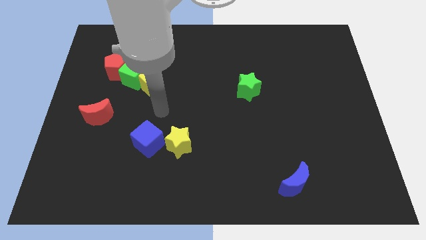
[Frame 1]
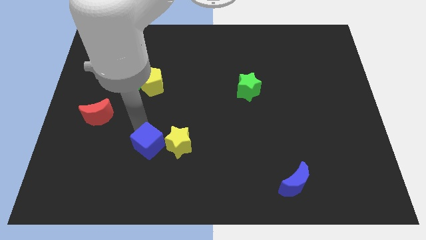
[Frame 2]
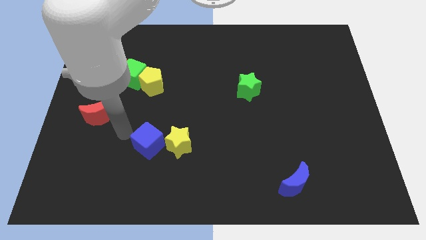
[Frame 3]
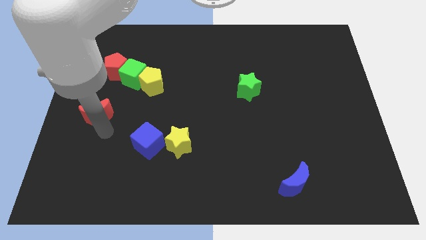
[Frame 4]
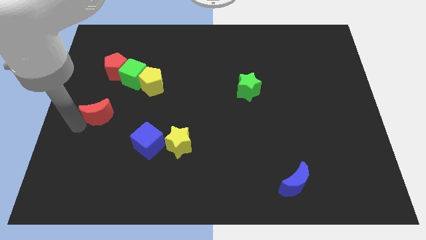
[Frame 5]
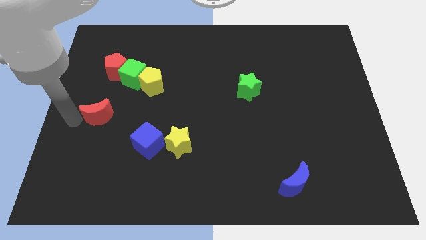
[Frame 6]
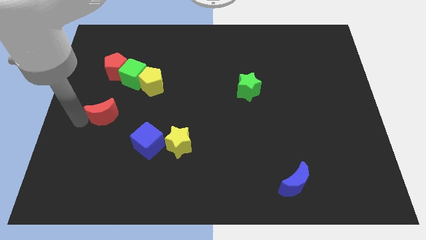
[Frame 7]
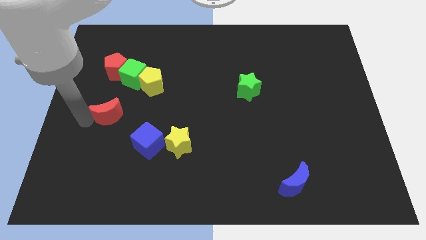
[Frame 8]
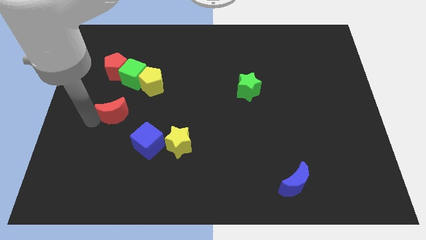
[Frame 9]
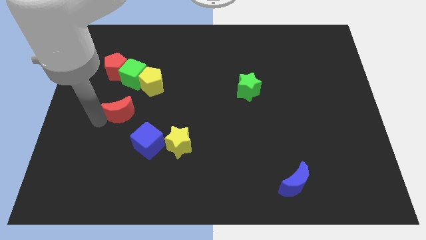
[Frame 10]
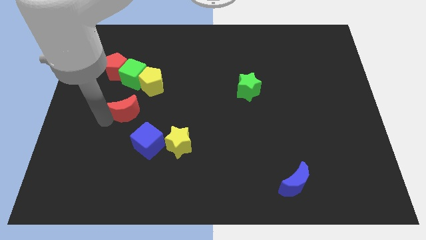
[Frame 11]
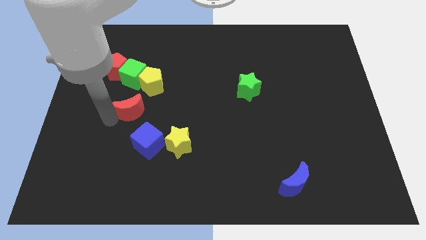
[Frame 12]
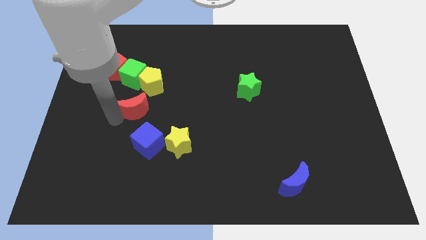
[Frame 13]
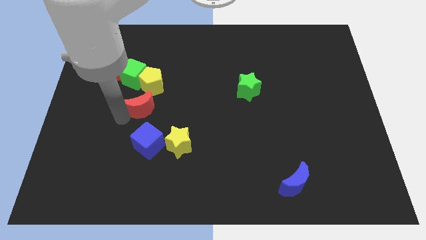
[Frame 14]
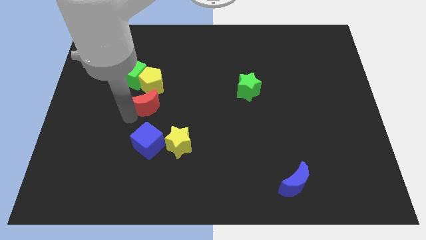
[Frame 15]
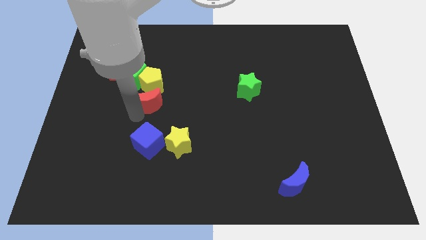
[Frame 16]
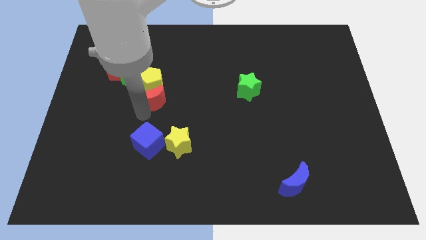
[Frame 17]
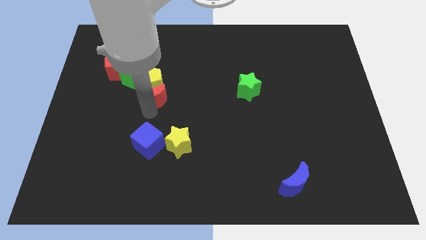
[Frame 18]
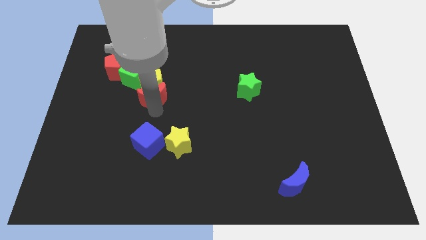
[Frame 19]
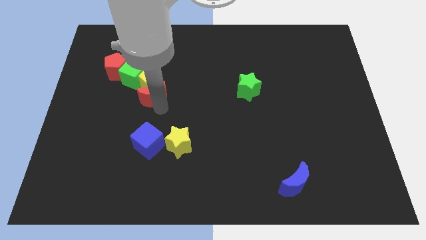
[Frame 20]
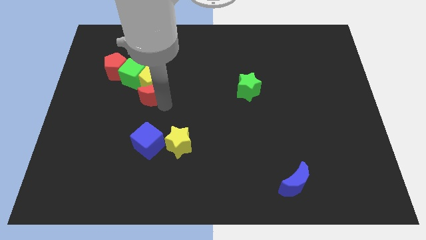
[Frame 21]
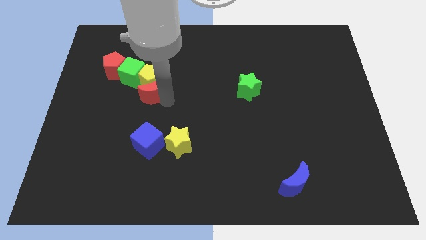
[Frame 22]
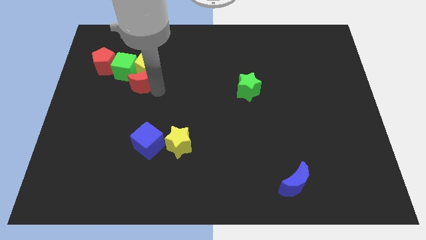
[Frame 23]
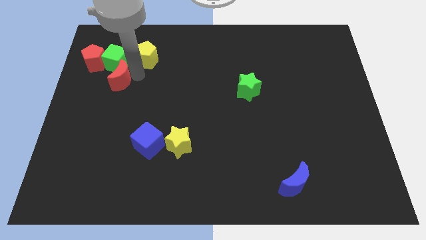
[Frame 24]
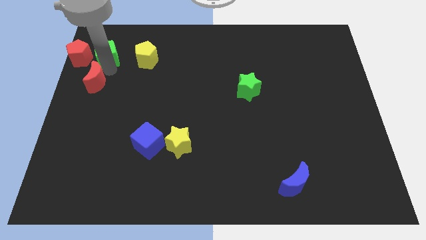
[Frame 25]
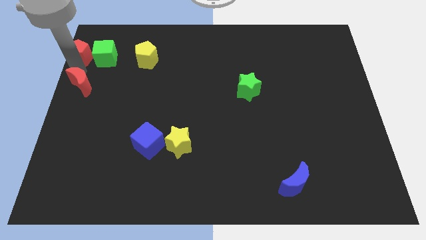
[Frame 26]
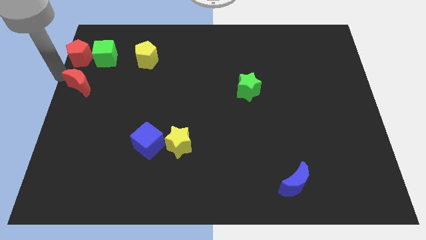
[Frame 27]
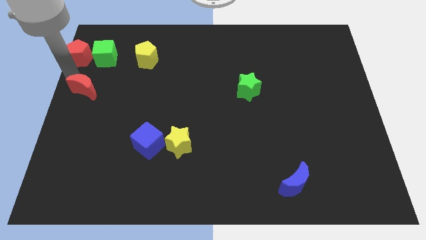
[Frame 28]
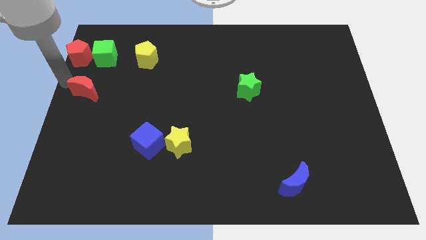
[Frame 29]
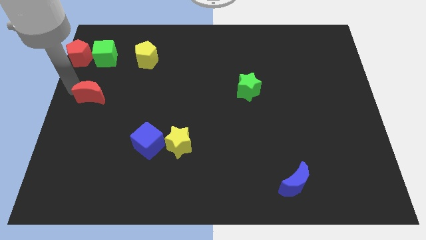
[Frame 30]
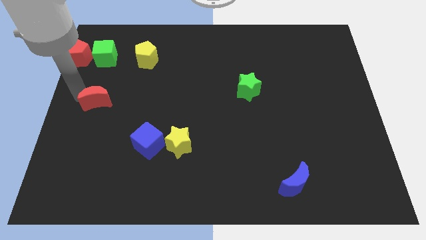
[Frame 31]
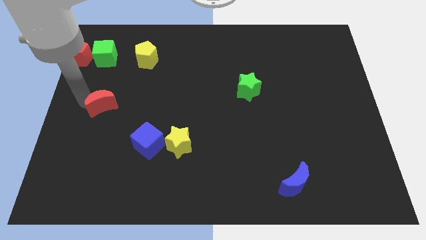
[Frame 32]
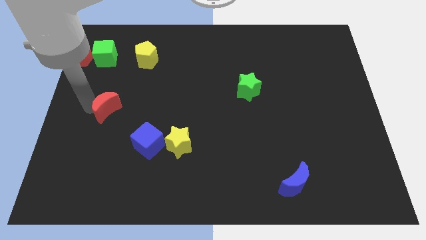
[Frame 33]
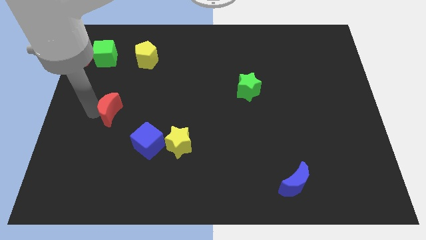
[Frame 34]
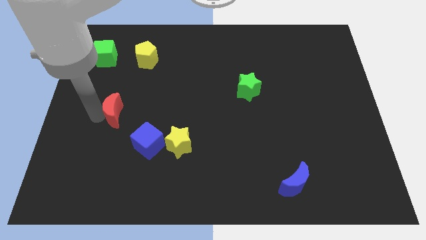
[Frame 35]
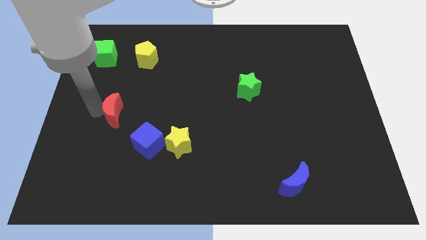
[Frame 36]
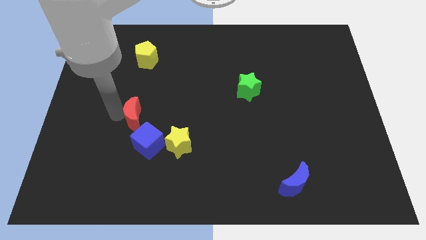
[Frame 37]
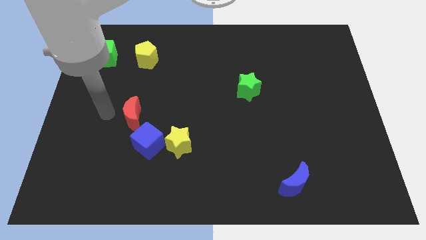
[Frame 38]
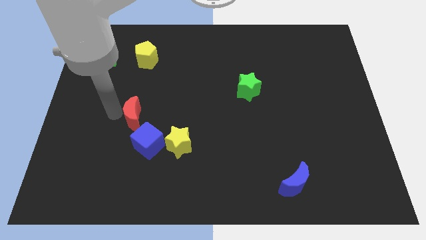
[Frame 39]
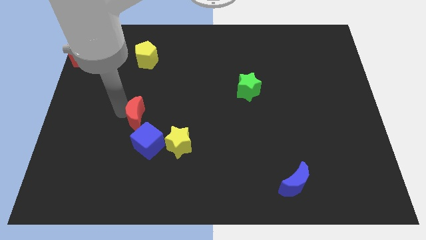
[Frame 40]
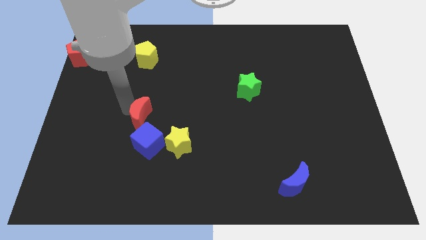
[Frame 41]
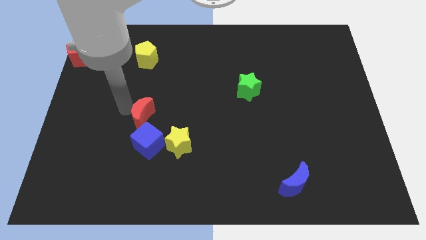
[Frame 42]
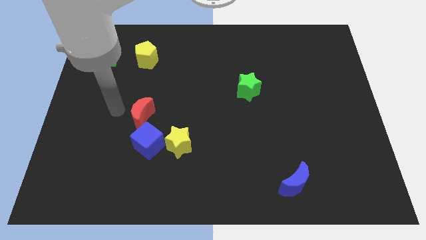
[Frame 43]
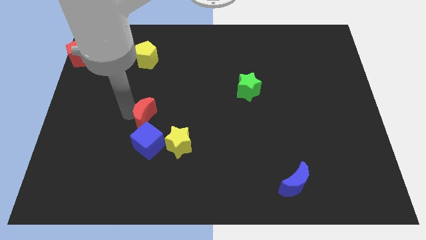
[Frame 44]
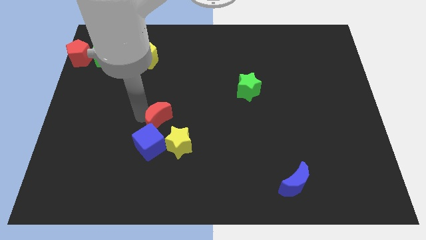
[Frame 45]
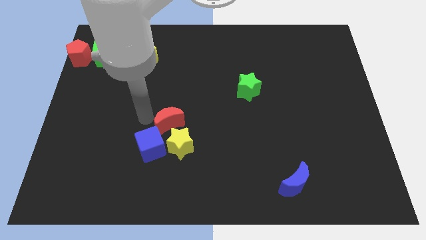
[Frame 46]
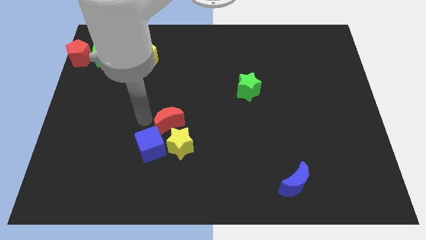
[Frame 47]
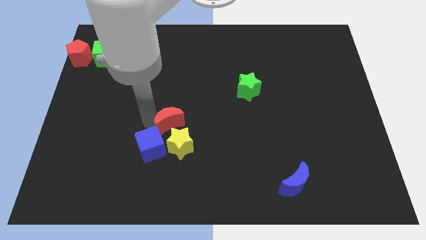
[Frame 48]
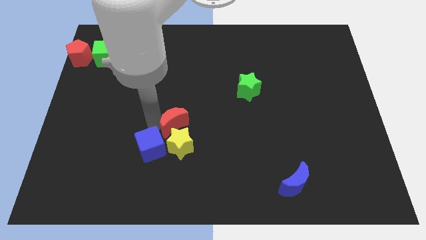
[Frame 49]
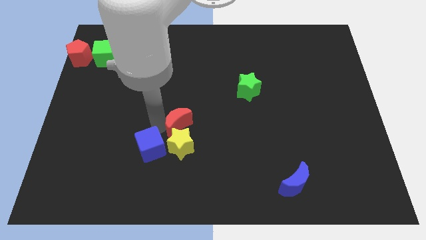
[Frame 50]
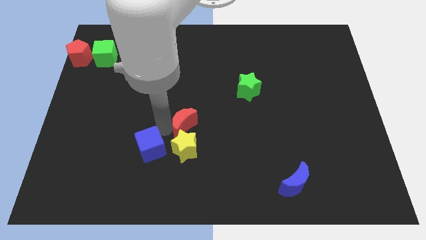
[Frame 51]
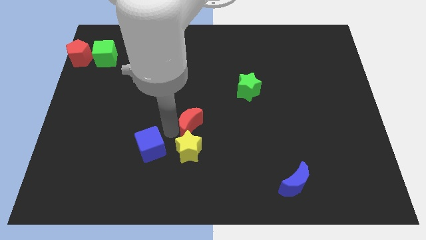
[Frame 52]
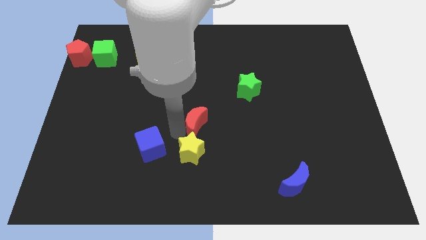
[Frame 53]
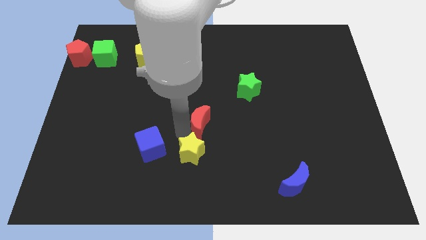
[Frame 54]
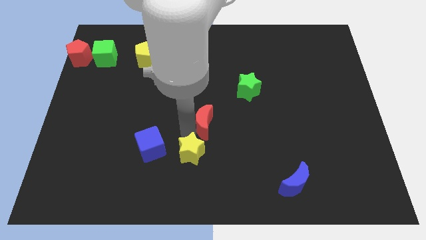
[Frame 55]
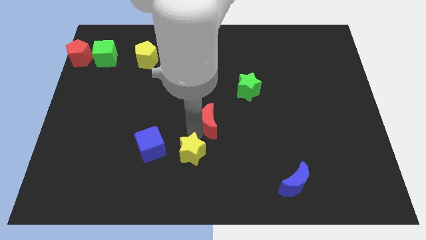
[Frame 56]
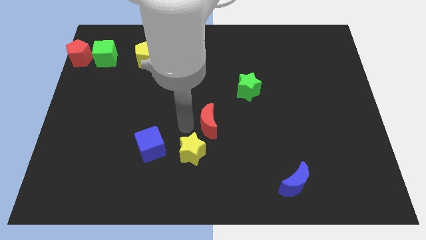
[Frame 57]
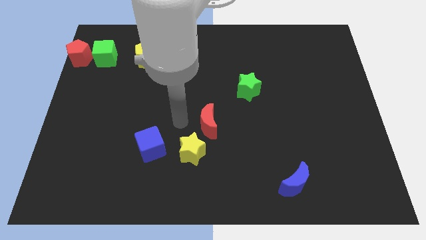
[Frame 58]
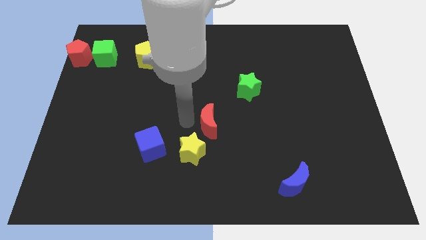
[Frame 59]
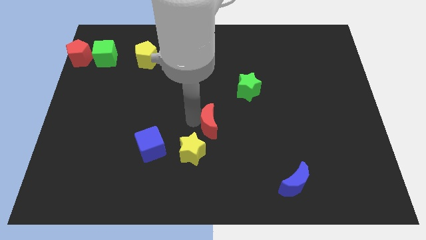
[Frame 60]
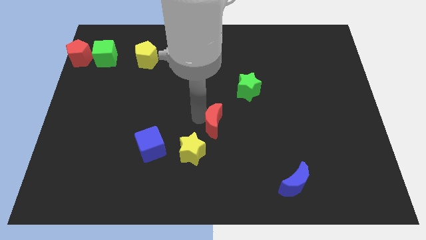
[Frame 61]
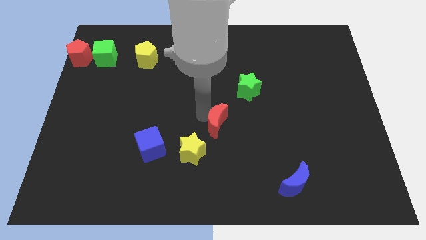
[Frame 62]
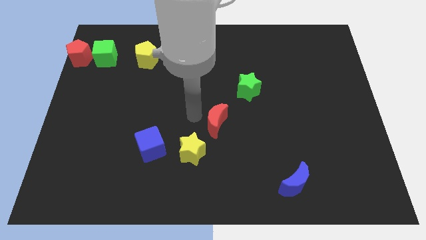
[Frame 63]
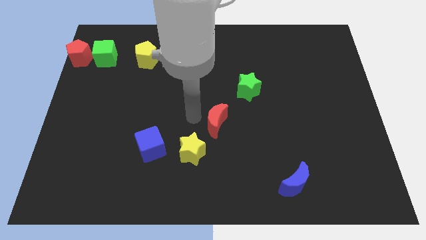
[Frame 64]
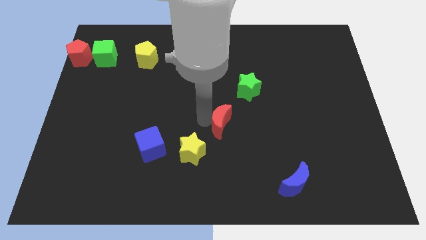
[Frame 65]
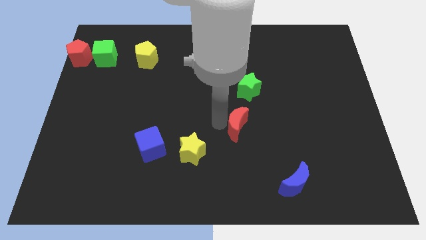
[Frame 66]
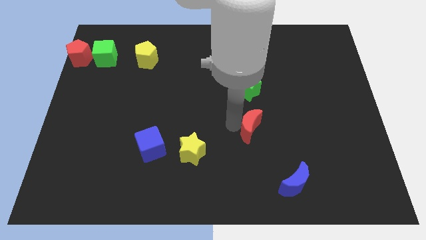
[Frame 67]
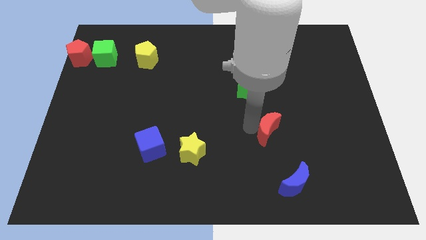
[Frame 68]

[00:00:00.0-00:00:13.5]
put the red moon to the top side of the blue moon

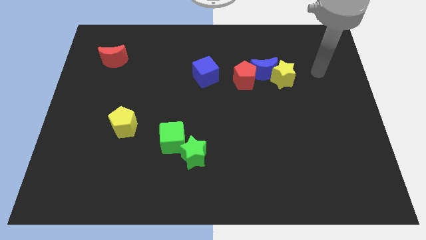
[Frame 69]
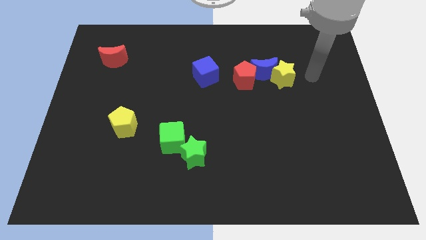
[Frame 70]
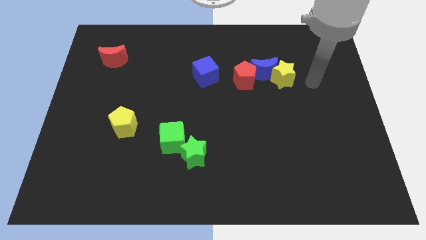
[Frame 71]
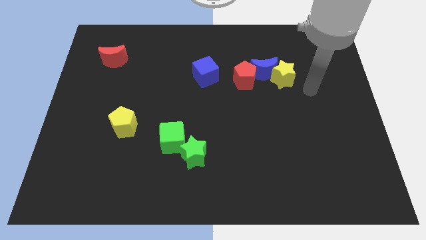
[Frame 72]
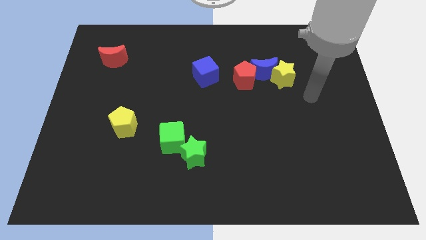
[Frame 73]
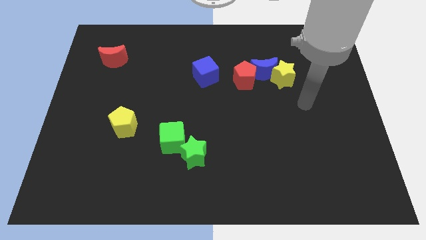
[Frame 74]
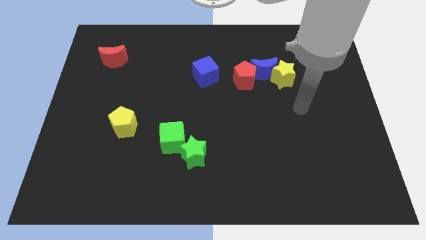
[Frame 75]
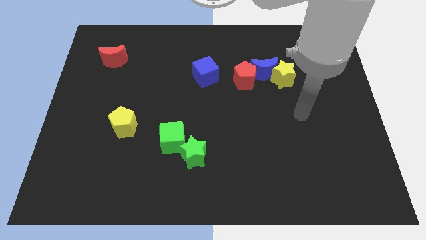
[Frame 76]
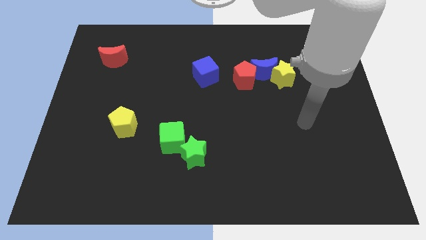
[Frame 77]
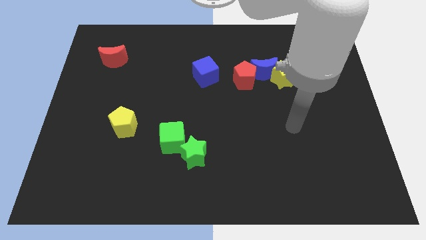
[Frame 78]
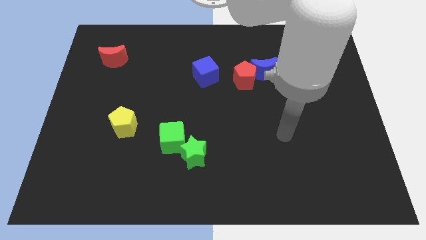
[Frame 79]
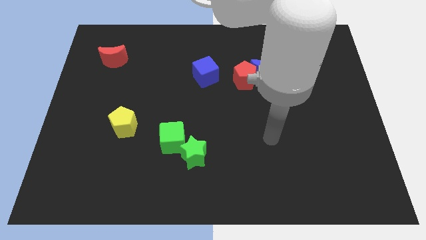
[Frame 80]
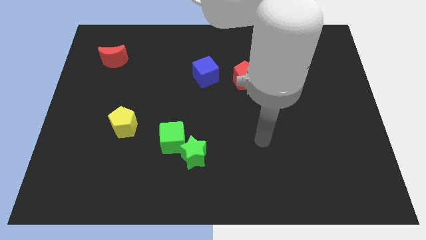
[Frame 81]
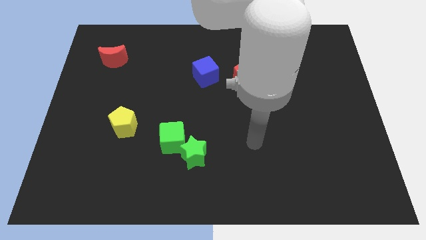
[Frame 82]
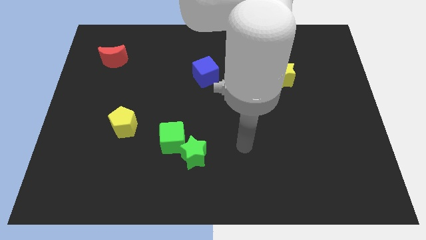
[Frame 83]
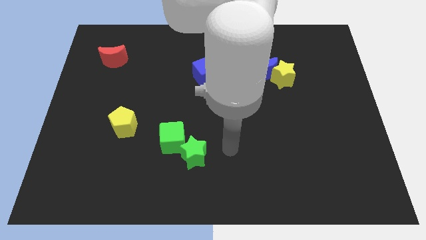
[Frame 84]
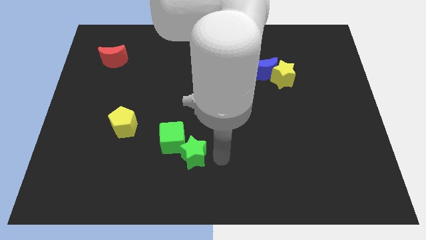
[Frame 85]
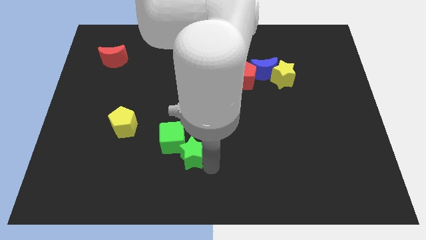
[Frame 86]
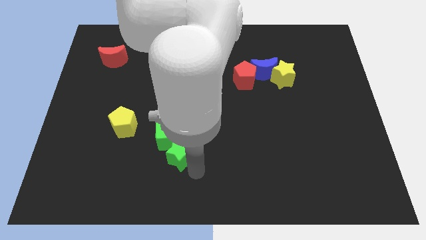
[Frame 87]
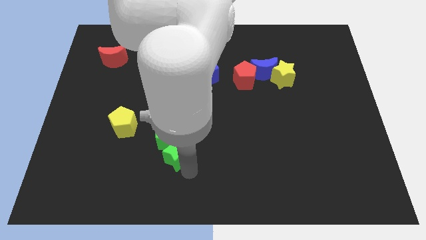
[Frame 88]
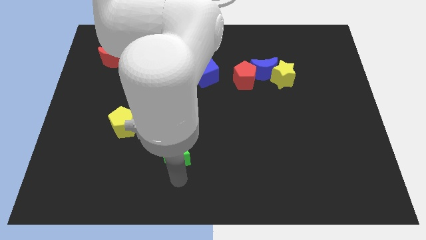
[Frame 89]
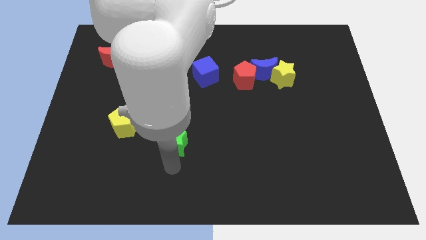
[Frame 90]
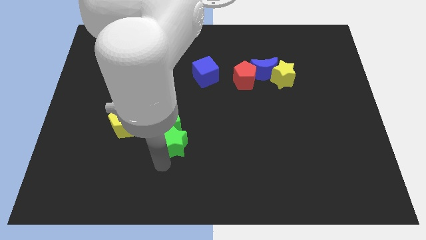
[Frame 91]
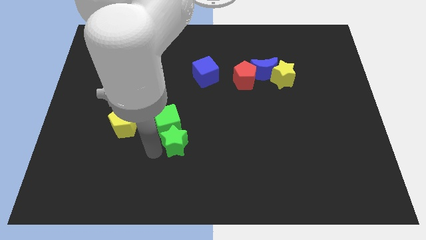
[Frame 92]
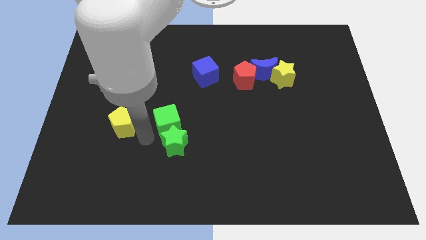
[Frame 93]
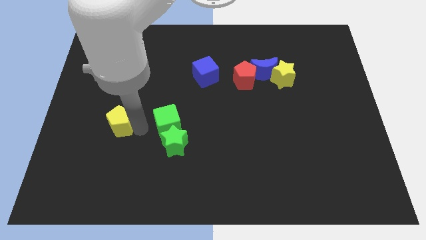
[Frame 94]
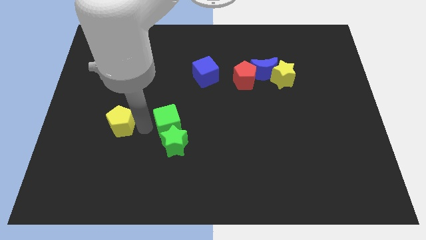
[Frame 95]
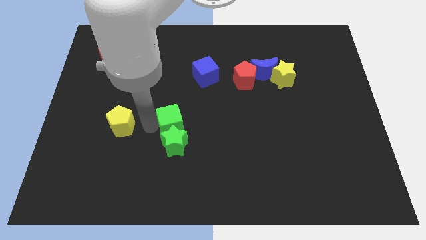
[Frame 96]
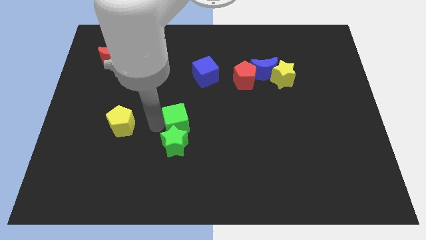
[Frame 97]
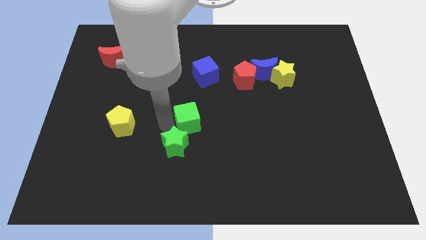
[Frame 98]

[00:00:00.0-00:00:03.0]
move the green cube to the bottom of the blue cube
